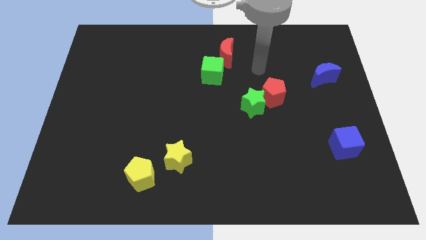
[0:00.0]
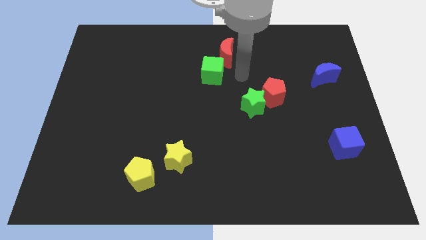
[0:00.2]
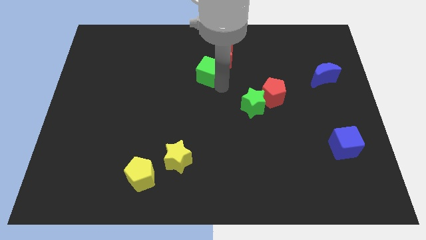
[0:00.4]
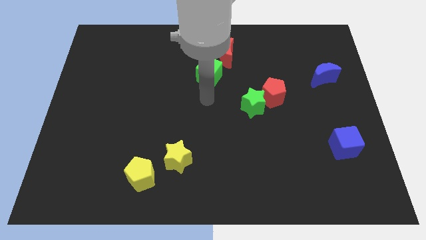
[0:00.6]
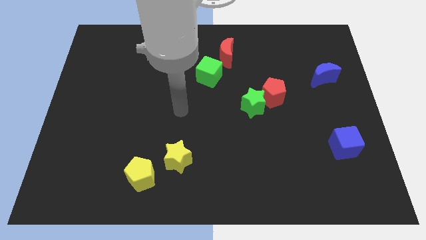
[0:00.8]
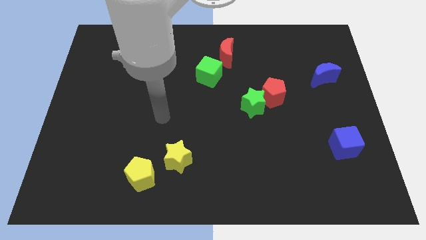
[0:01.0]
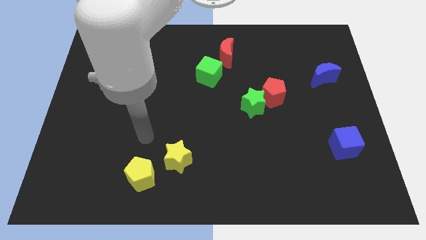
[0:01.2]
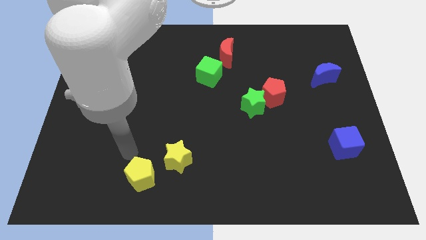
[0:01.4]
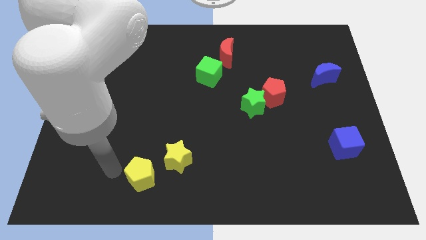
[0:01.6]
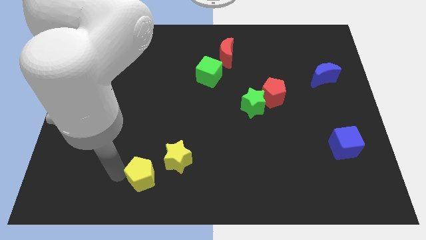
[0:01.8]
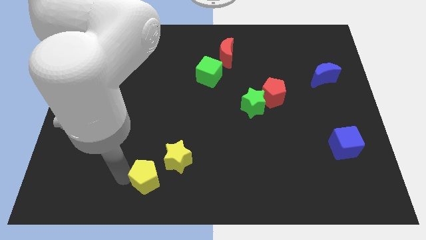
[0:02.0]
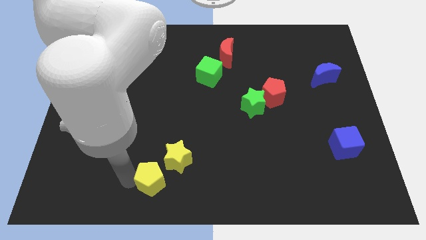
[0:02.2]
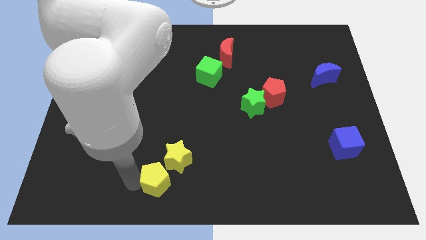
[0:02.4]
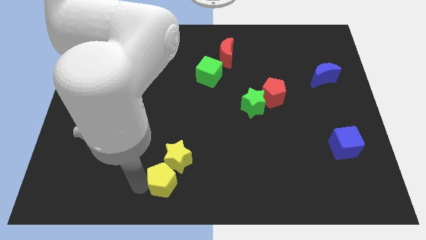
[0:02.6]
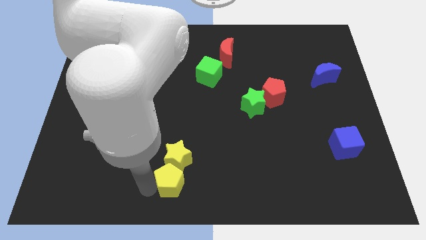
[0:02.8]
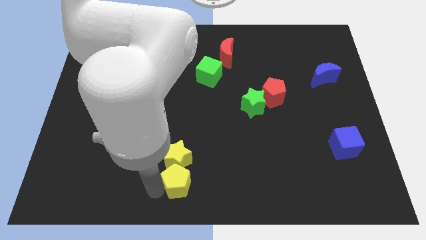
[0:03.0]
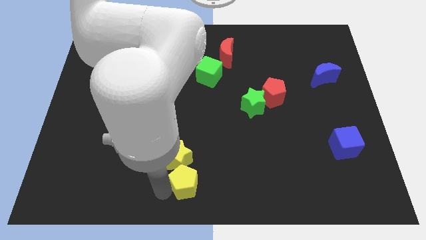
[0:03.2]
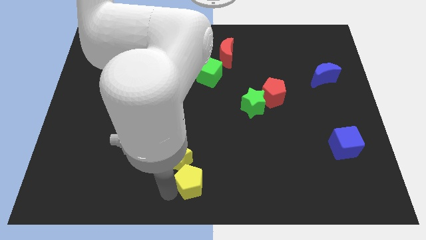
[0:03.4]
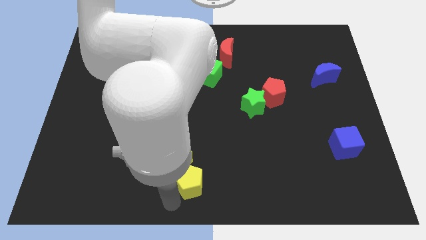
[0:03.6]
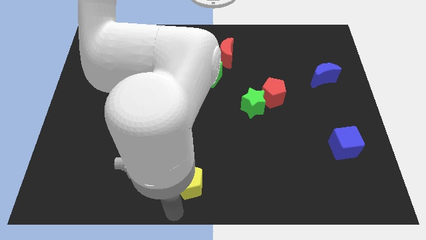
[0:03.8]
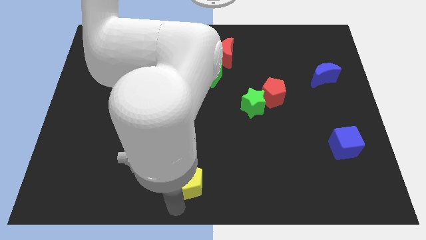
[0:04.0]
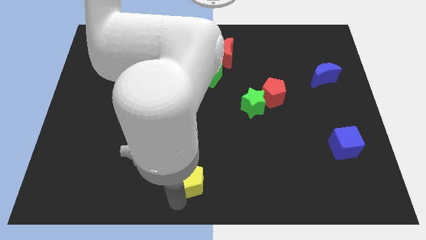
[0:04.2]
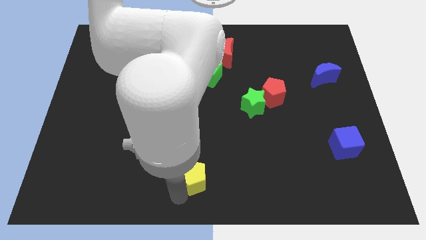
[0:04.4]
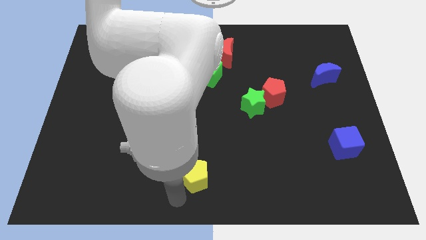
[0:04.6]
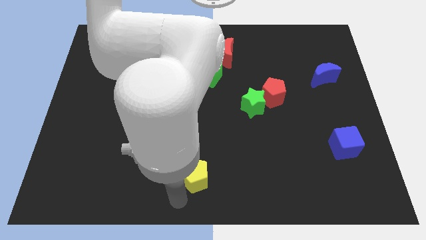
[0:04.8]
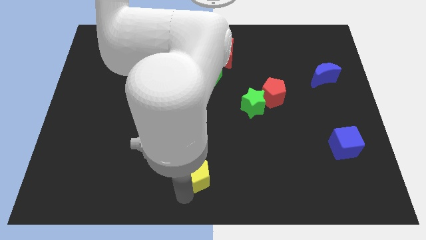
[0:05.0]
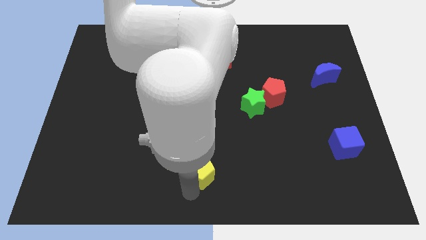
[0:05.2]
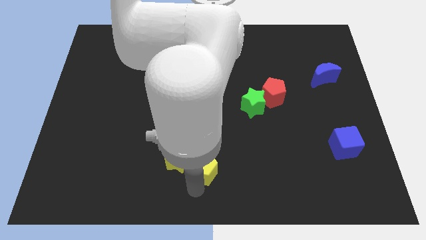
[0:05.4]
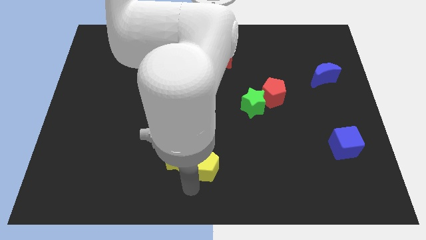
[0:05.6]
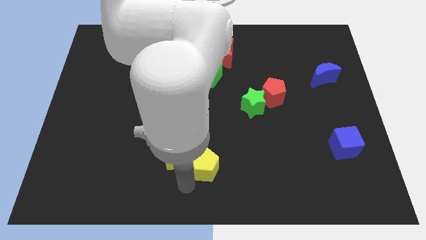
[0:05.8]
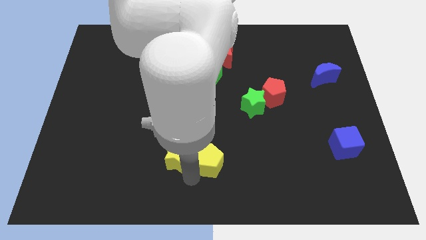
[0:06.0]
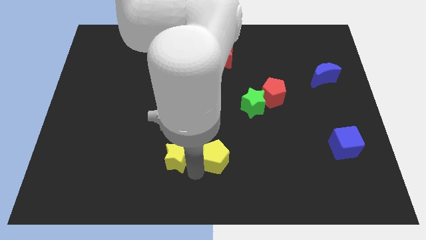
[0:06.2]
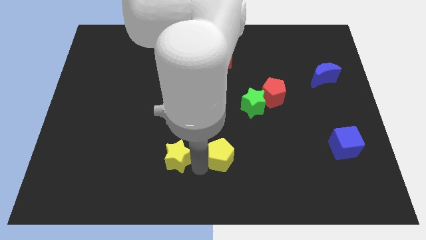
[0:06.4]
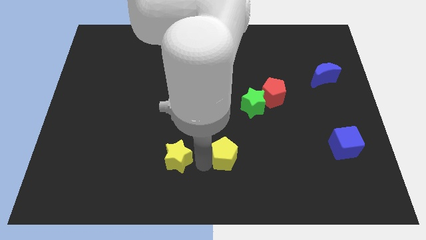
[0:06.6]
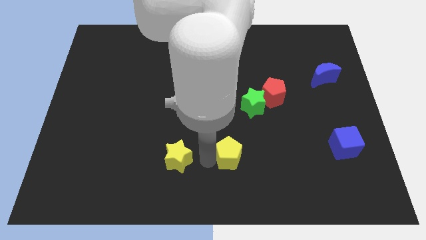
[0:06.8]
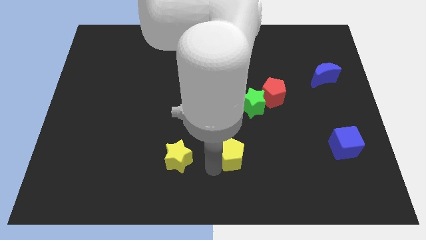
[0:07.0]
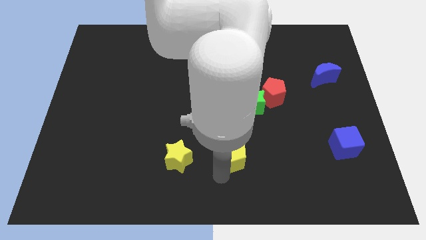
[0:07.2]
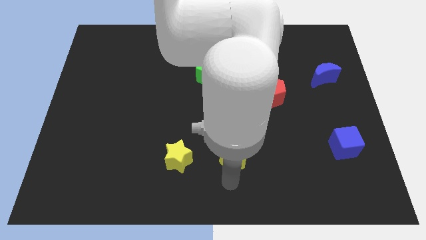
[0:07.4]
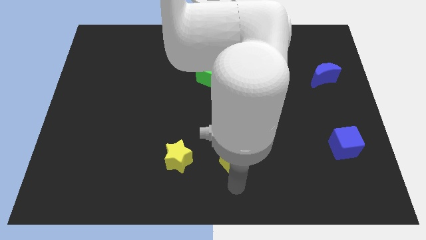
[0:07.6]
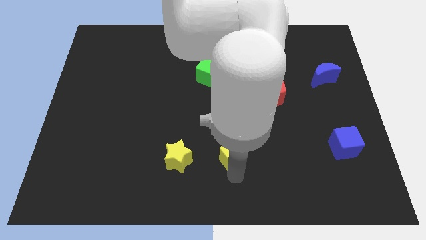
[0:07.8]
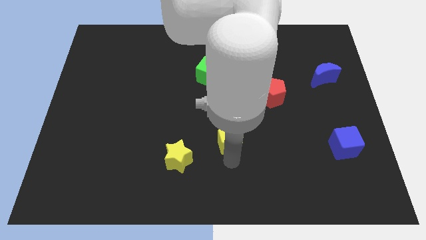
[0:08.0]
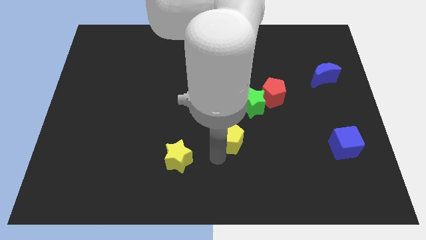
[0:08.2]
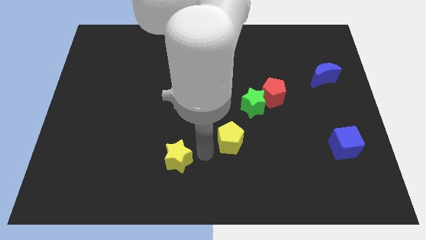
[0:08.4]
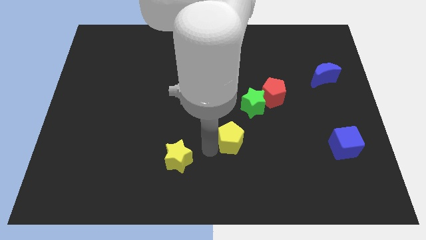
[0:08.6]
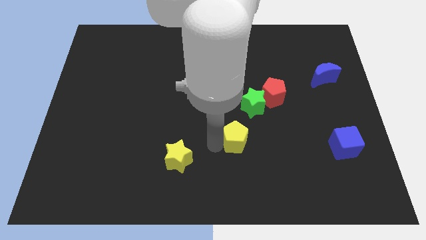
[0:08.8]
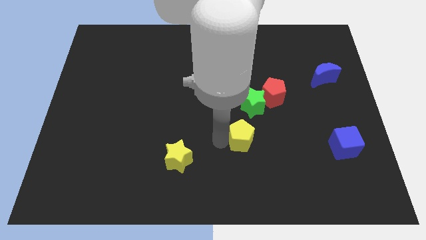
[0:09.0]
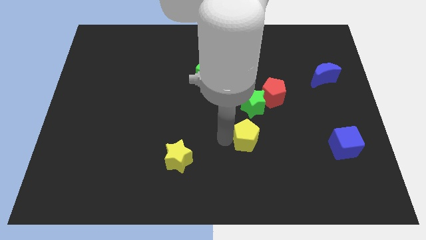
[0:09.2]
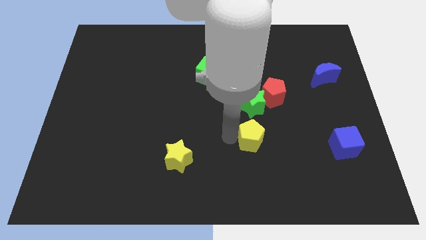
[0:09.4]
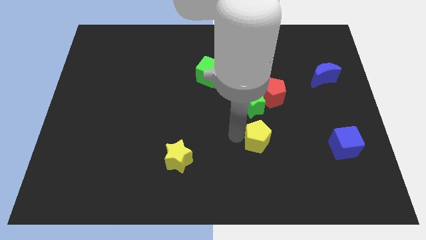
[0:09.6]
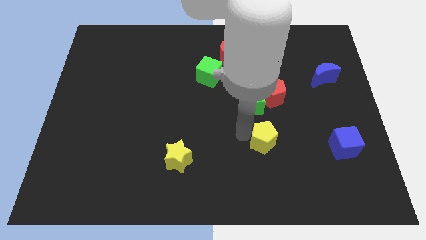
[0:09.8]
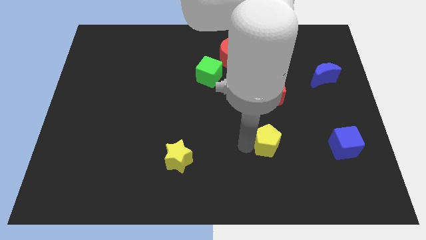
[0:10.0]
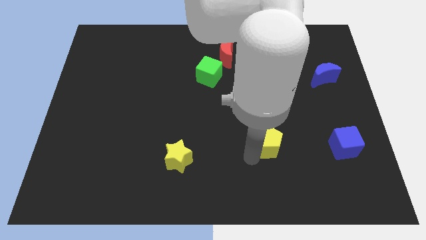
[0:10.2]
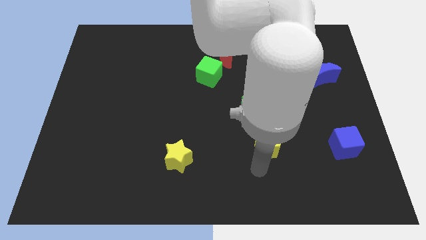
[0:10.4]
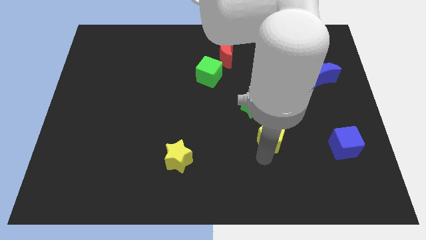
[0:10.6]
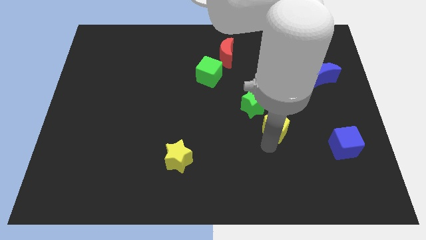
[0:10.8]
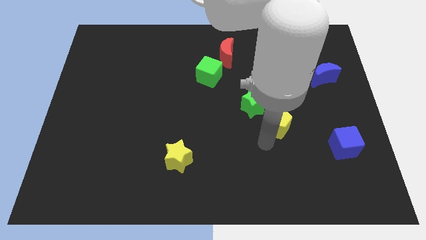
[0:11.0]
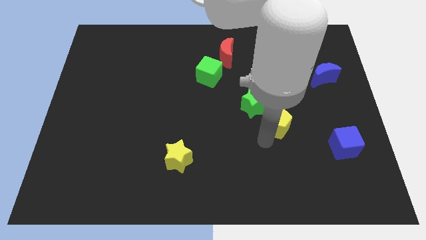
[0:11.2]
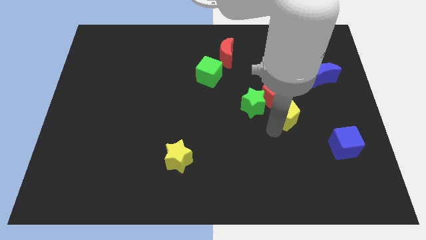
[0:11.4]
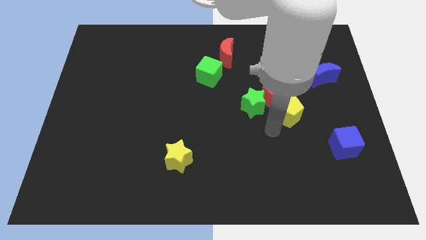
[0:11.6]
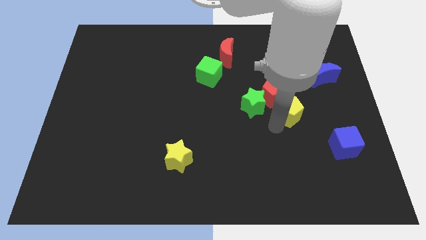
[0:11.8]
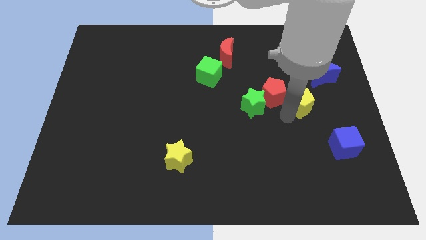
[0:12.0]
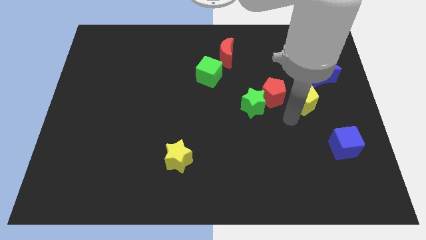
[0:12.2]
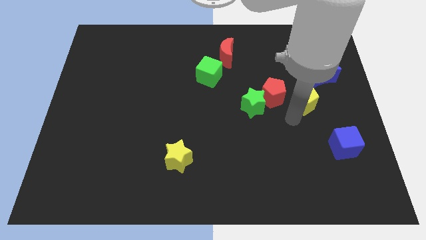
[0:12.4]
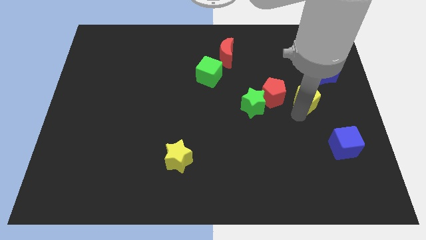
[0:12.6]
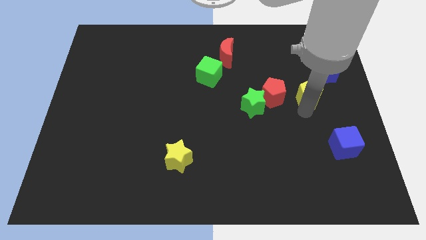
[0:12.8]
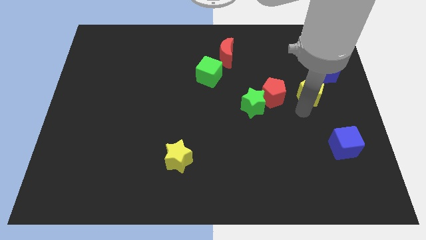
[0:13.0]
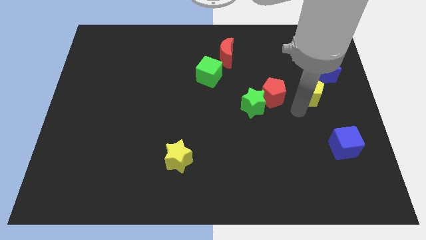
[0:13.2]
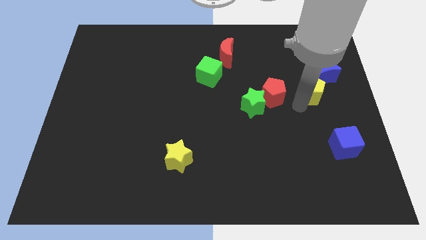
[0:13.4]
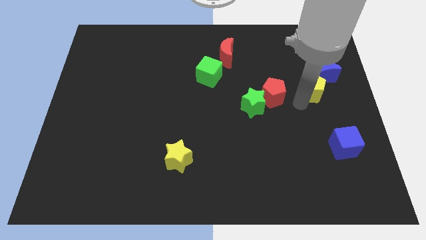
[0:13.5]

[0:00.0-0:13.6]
move the yellow pentagon to the blue moon

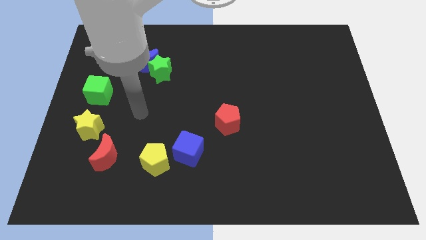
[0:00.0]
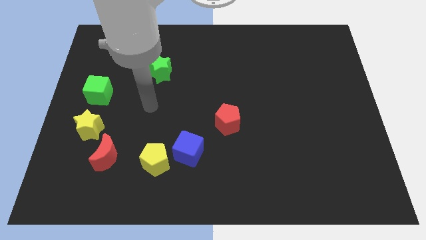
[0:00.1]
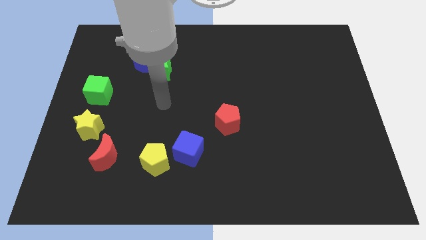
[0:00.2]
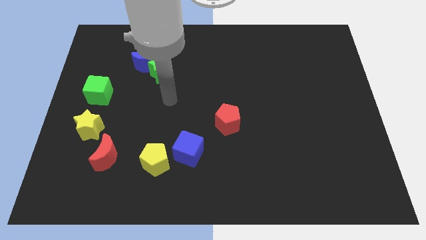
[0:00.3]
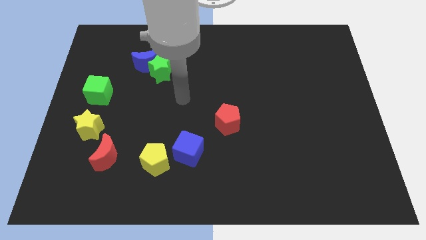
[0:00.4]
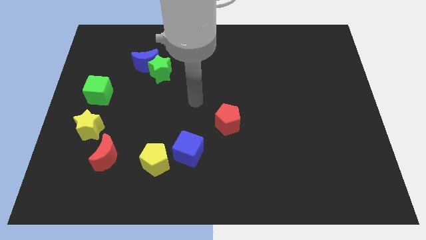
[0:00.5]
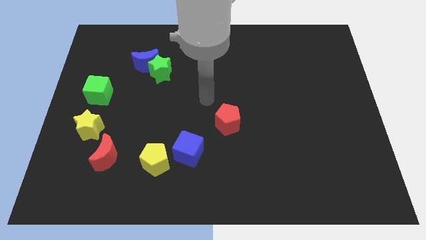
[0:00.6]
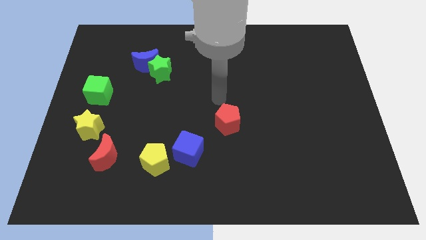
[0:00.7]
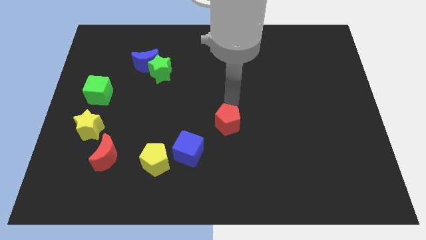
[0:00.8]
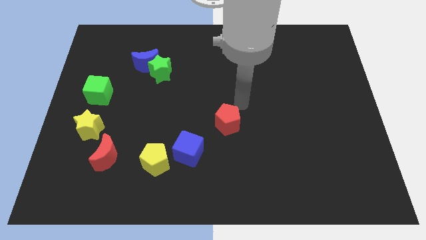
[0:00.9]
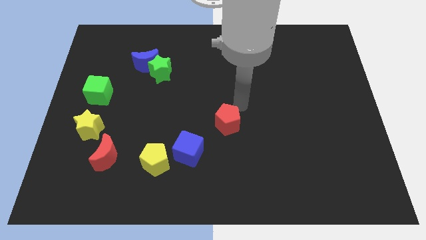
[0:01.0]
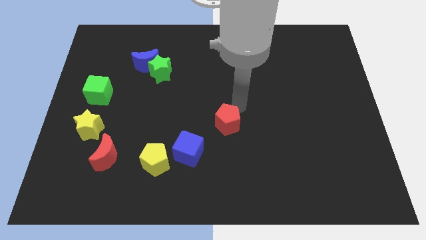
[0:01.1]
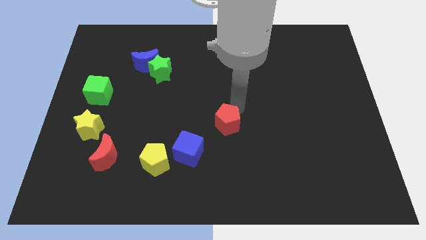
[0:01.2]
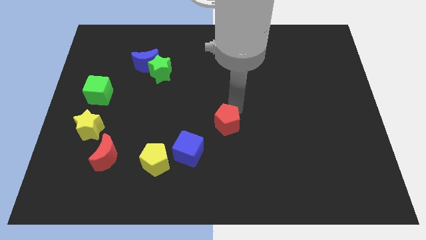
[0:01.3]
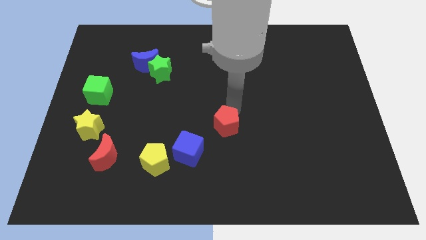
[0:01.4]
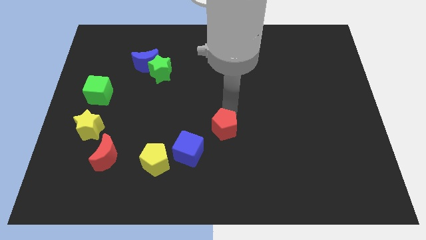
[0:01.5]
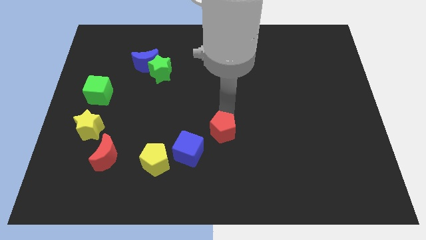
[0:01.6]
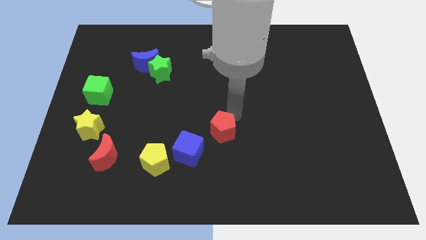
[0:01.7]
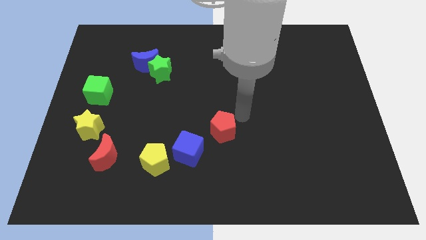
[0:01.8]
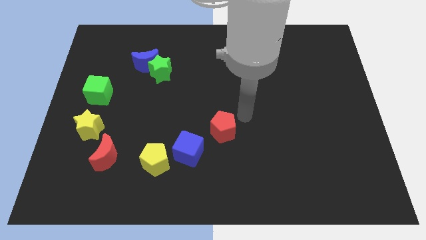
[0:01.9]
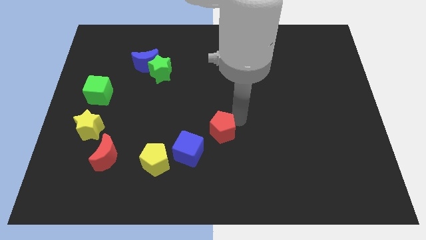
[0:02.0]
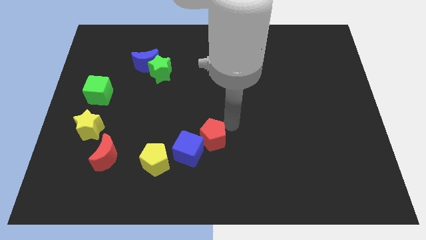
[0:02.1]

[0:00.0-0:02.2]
slide the red pentagon next to the blue cube
